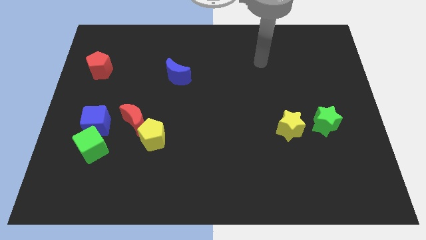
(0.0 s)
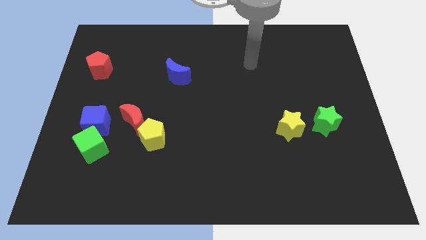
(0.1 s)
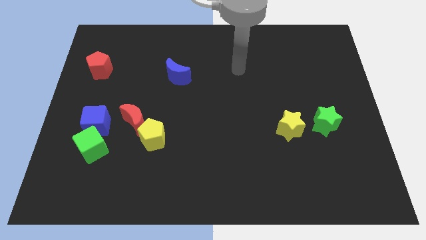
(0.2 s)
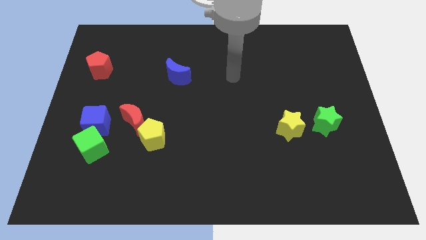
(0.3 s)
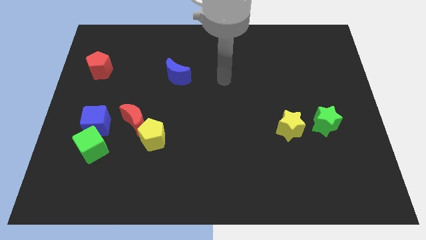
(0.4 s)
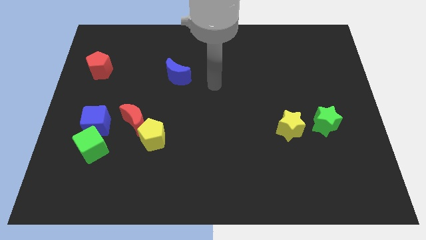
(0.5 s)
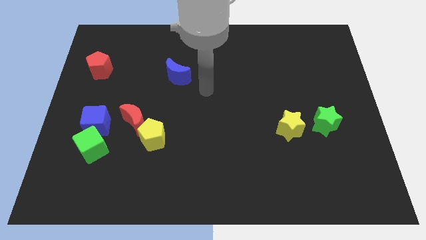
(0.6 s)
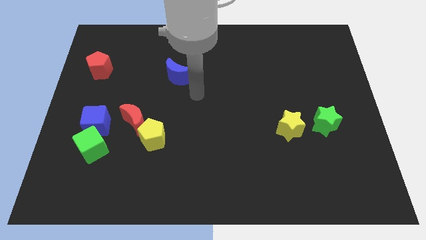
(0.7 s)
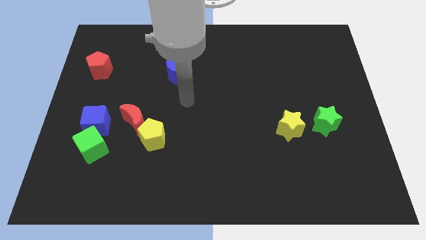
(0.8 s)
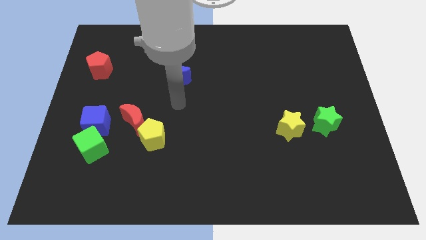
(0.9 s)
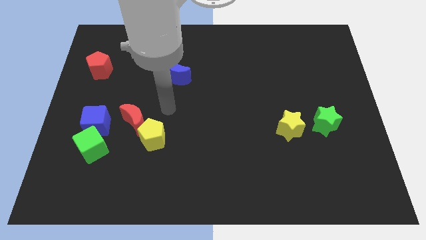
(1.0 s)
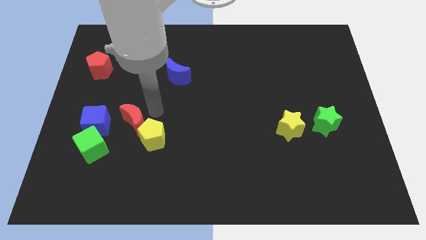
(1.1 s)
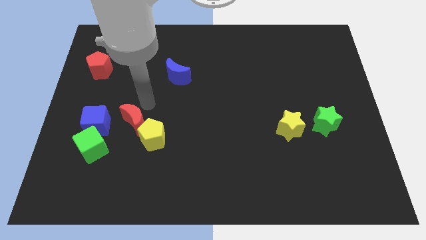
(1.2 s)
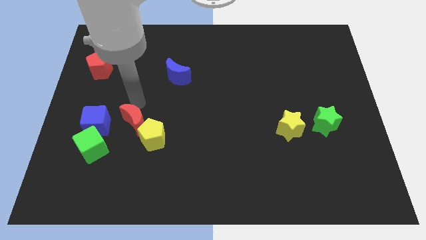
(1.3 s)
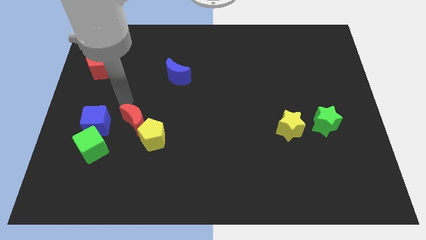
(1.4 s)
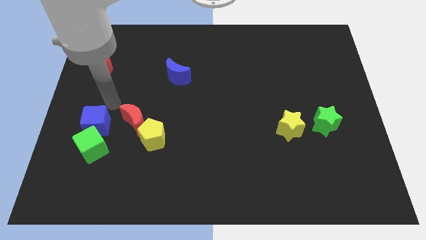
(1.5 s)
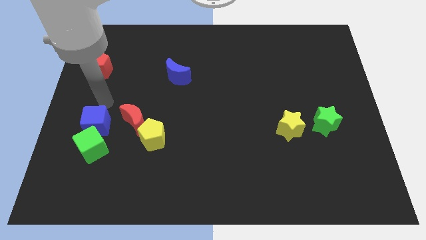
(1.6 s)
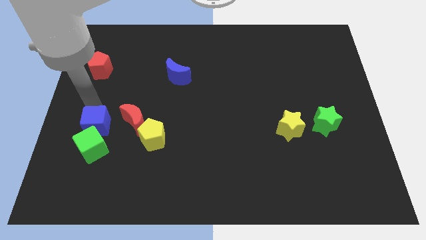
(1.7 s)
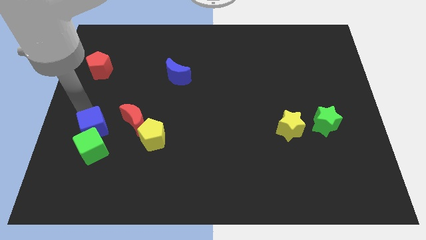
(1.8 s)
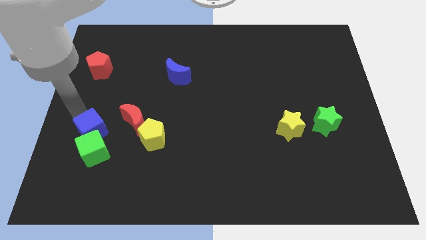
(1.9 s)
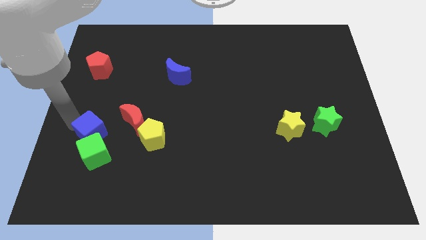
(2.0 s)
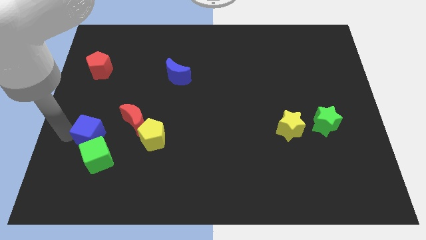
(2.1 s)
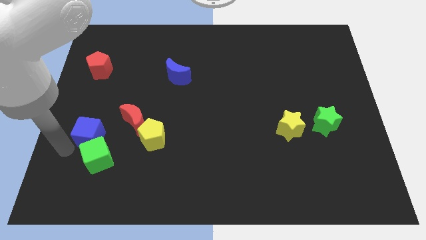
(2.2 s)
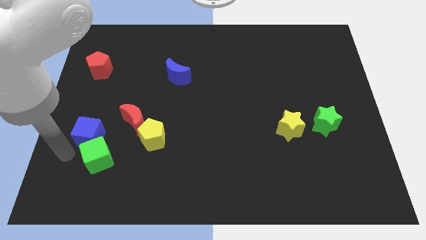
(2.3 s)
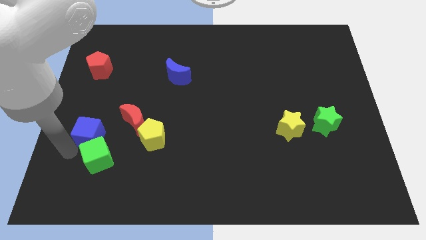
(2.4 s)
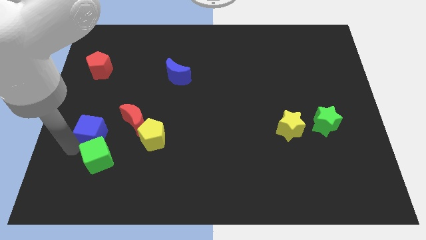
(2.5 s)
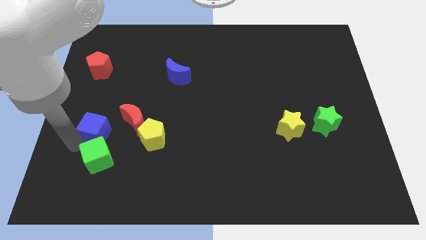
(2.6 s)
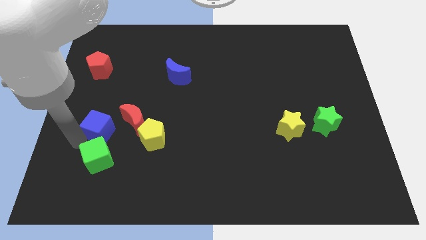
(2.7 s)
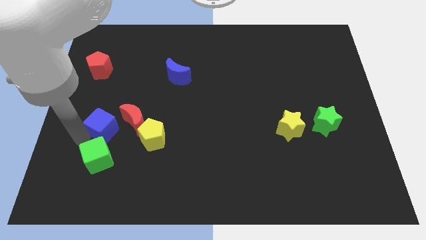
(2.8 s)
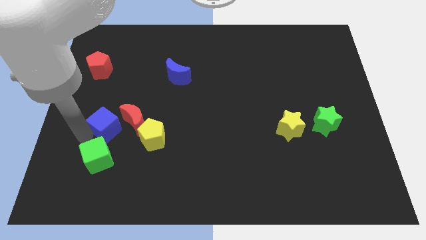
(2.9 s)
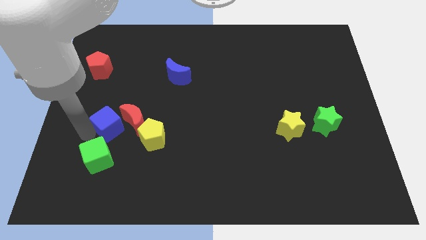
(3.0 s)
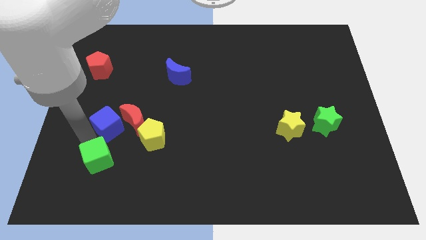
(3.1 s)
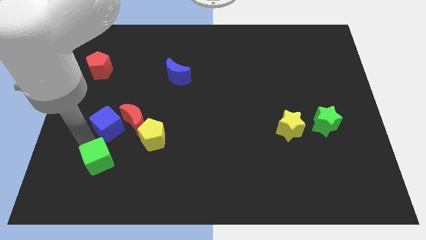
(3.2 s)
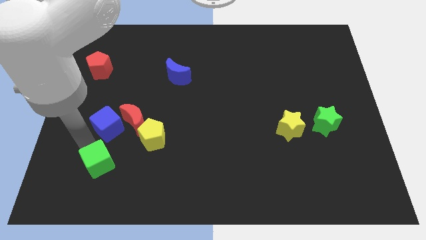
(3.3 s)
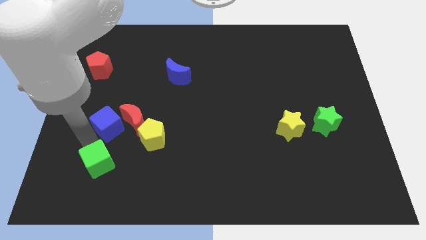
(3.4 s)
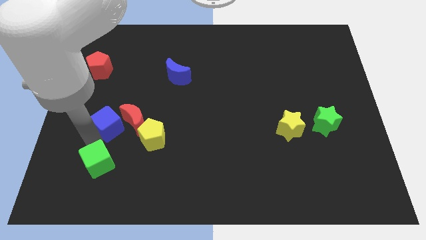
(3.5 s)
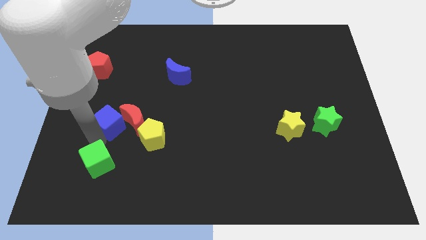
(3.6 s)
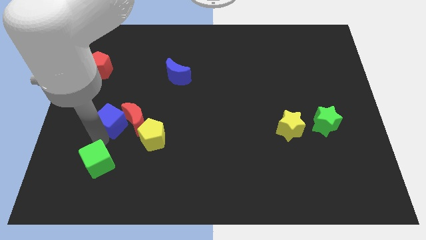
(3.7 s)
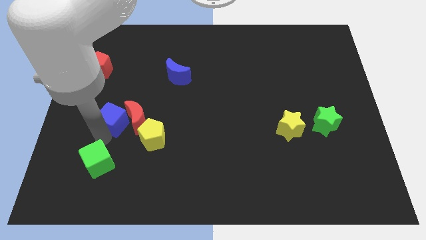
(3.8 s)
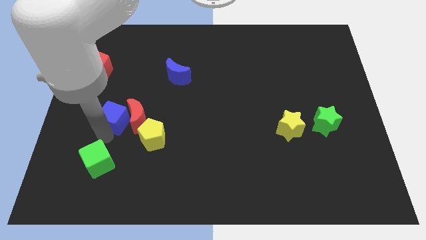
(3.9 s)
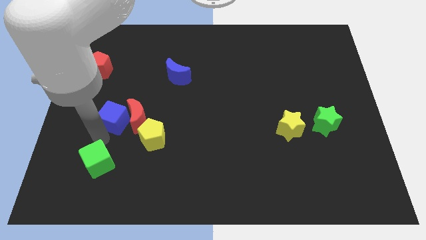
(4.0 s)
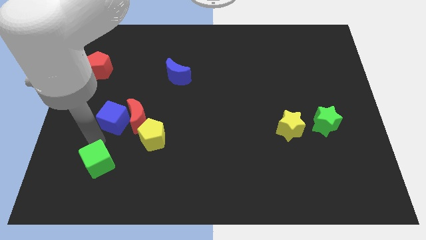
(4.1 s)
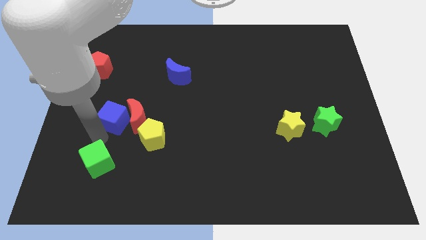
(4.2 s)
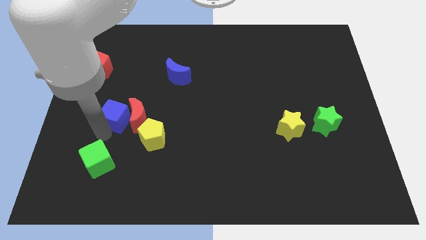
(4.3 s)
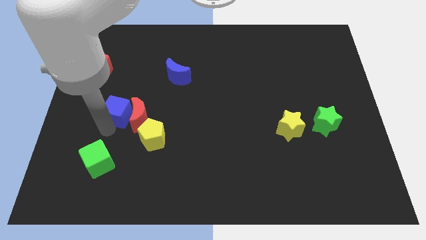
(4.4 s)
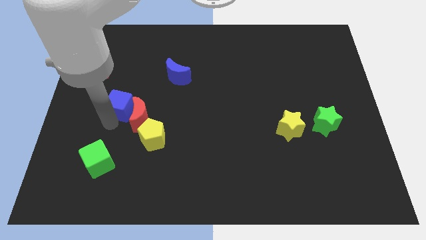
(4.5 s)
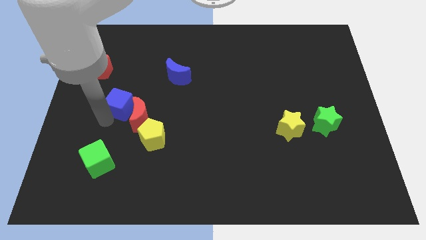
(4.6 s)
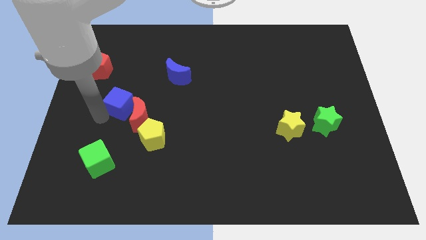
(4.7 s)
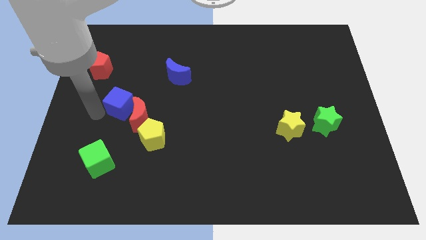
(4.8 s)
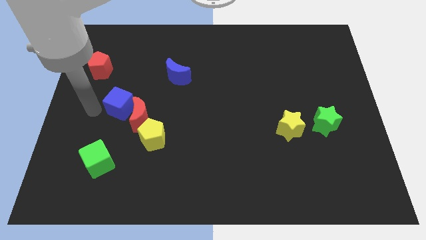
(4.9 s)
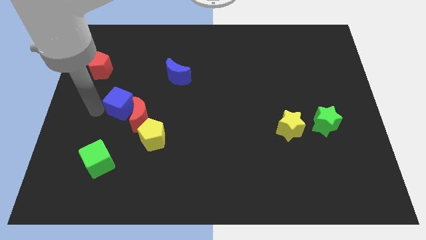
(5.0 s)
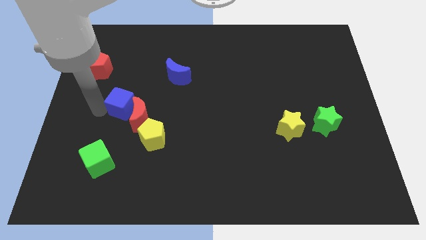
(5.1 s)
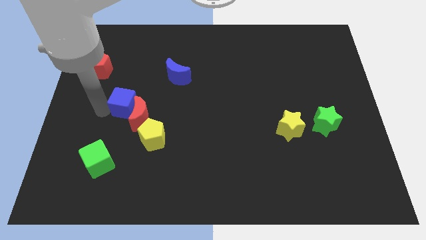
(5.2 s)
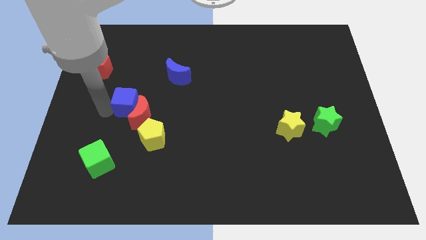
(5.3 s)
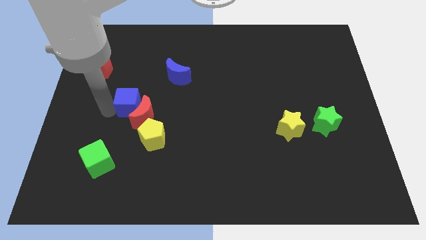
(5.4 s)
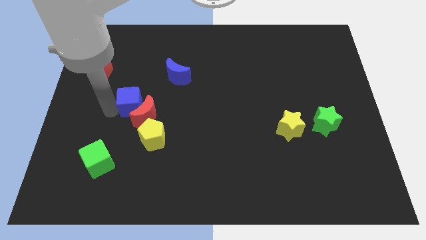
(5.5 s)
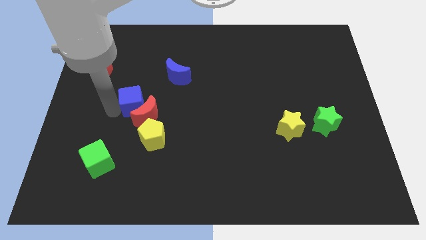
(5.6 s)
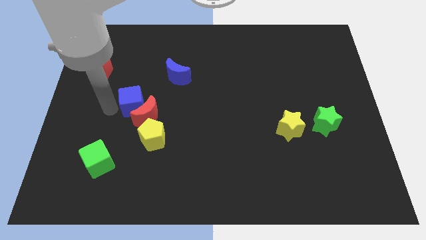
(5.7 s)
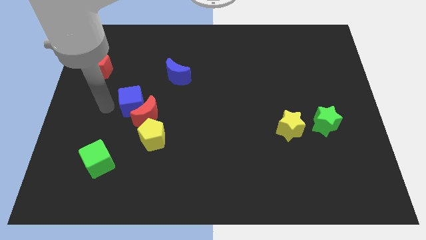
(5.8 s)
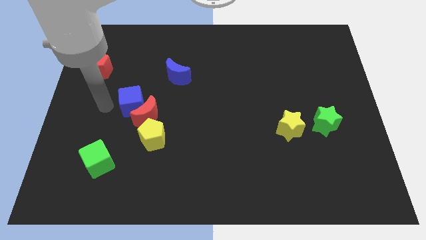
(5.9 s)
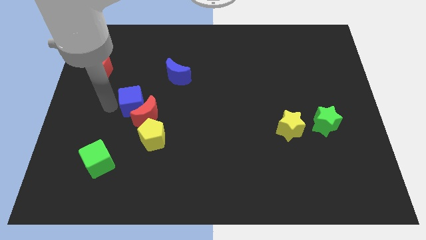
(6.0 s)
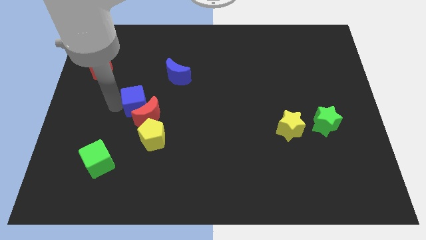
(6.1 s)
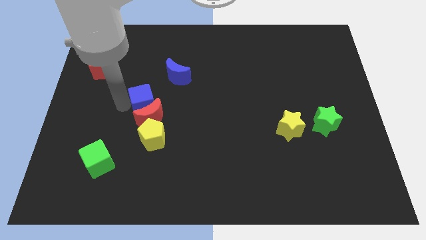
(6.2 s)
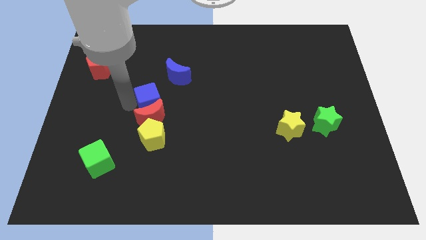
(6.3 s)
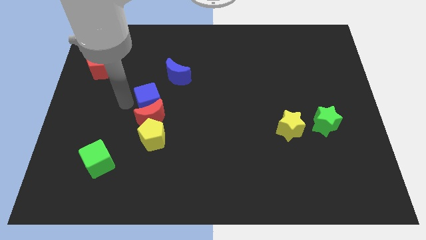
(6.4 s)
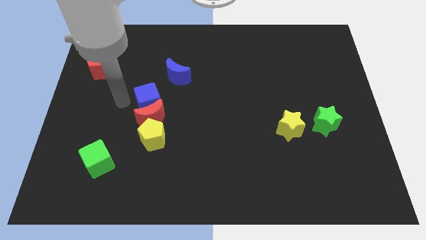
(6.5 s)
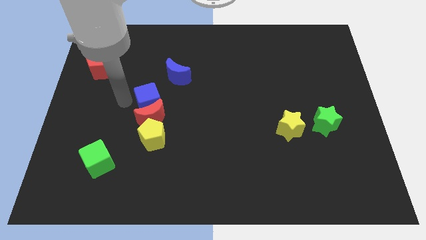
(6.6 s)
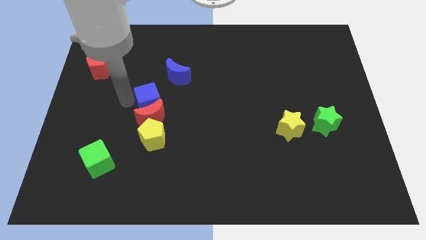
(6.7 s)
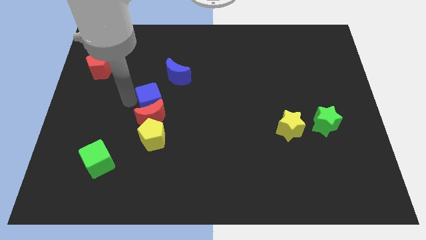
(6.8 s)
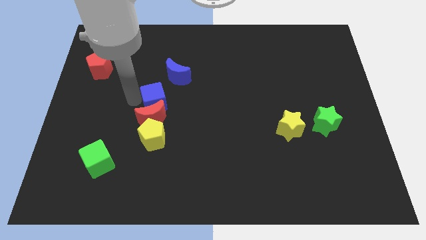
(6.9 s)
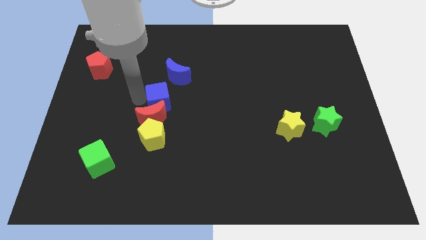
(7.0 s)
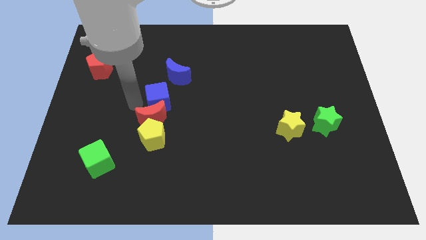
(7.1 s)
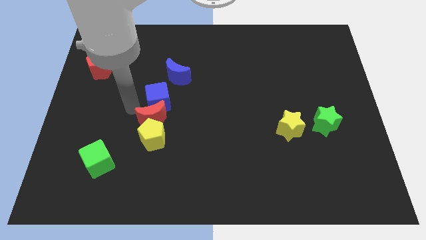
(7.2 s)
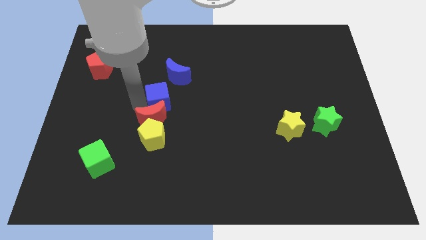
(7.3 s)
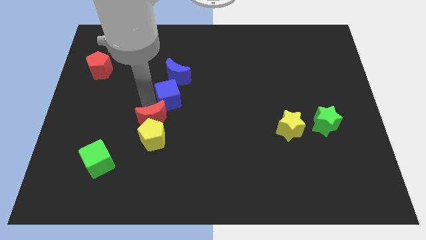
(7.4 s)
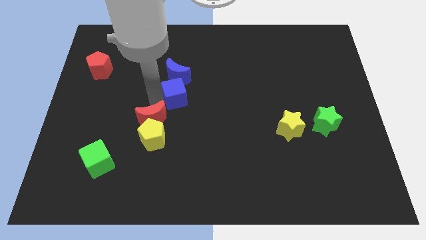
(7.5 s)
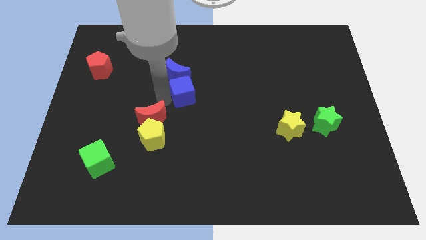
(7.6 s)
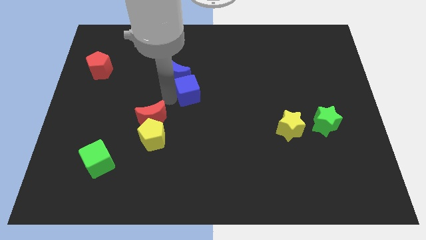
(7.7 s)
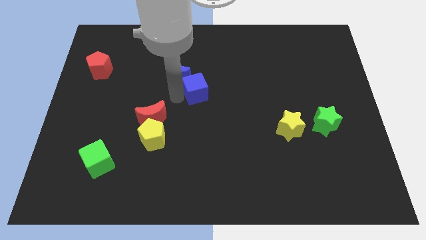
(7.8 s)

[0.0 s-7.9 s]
push the blue cube just right of the blue moon
